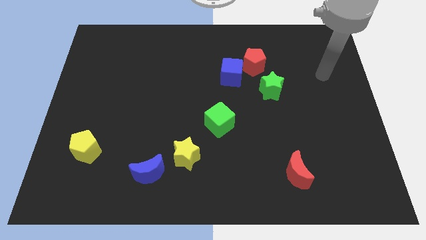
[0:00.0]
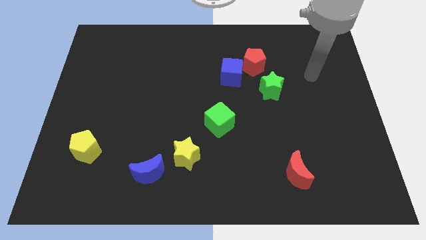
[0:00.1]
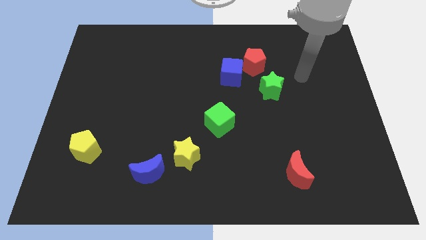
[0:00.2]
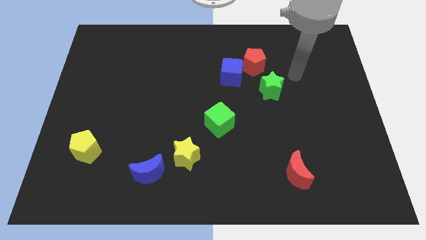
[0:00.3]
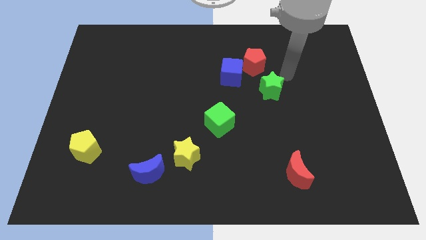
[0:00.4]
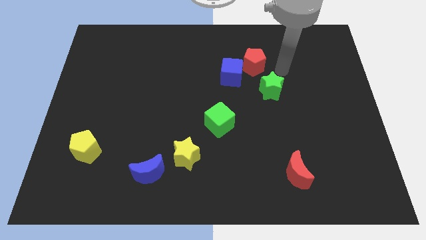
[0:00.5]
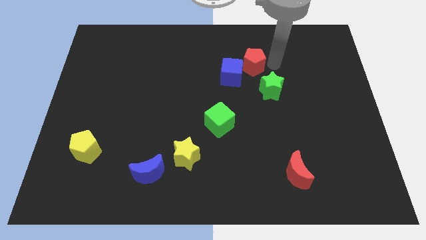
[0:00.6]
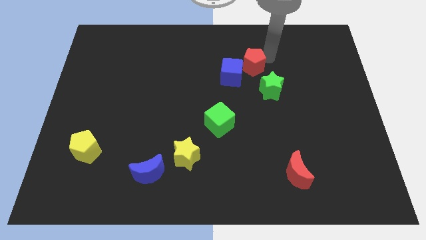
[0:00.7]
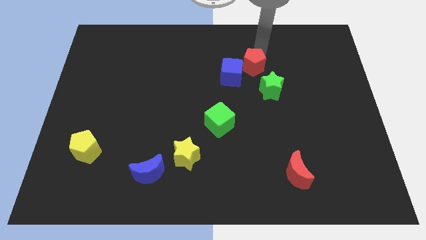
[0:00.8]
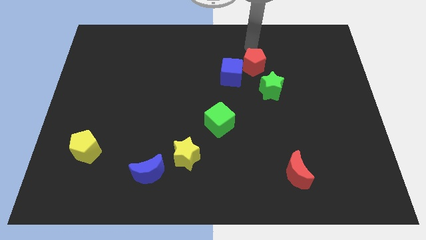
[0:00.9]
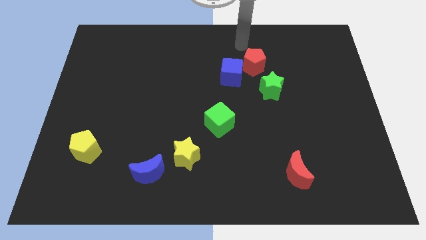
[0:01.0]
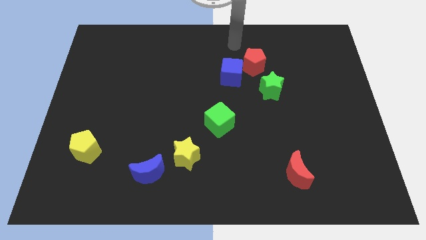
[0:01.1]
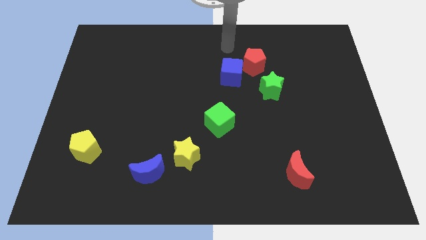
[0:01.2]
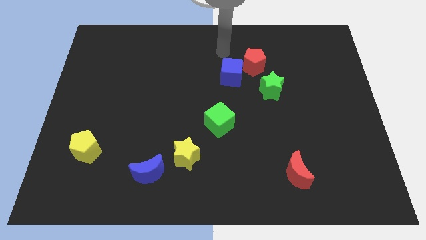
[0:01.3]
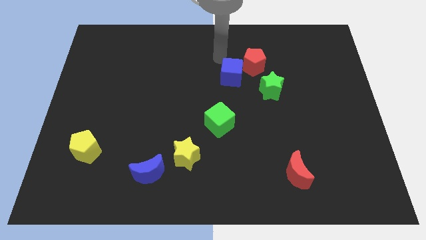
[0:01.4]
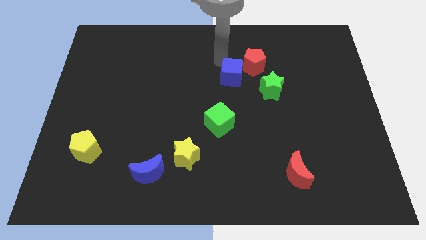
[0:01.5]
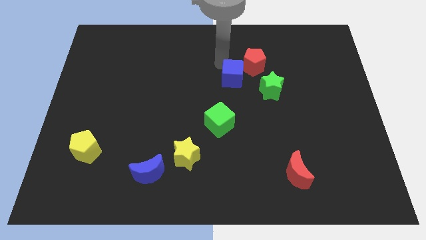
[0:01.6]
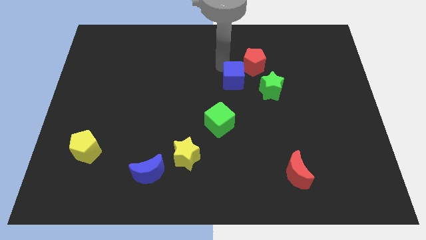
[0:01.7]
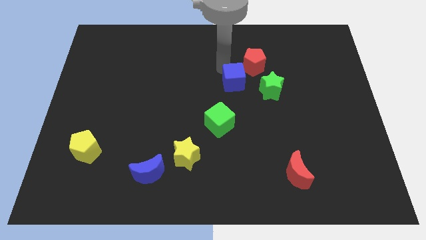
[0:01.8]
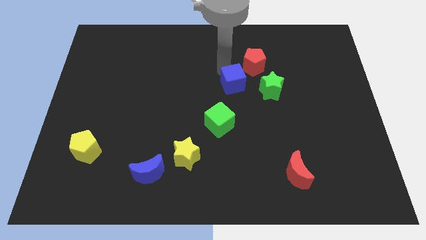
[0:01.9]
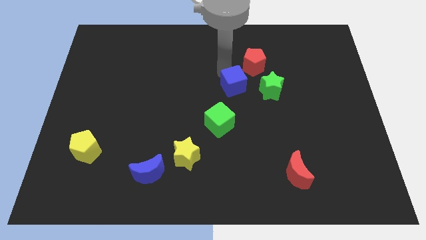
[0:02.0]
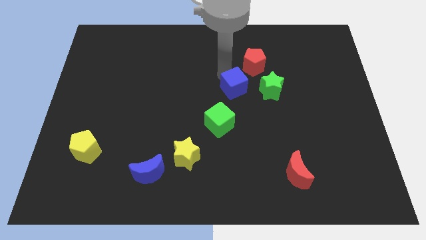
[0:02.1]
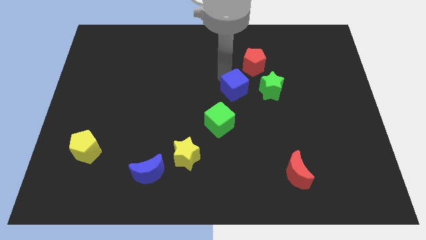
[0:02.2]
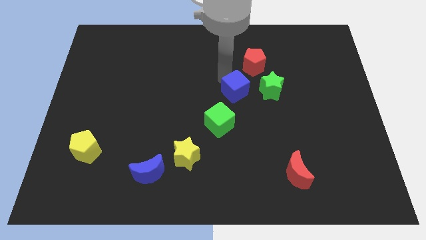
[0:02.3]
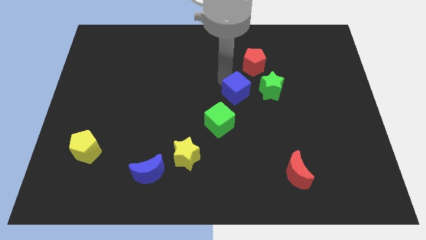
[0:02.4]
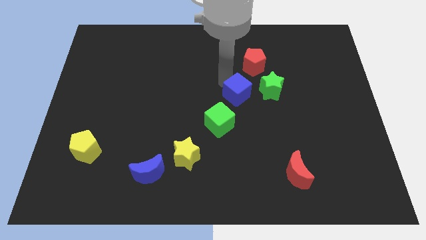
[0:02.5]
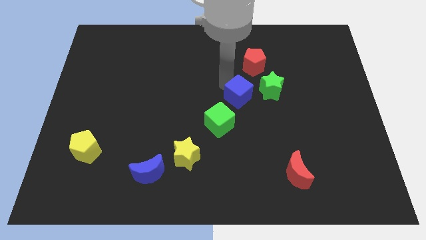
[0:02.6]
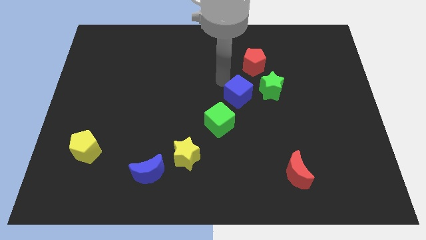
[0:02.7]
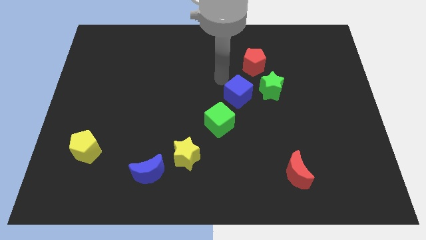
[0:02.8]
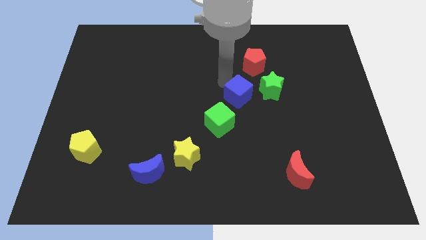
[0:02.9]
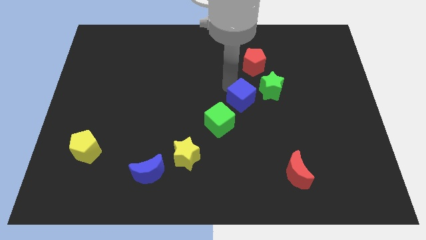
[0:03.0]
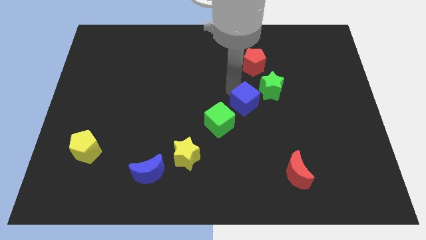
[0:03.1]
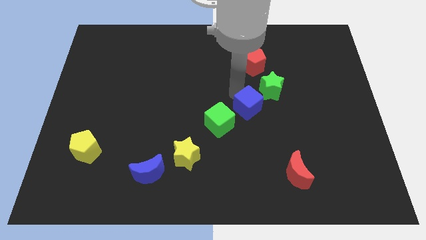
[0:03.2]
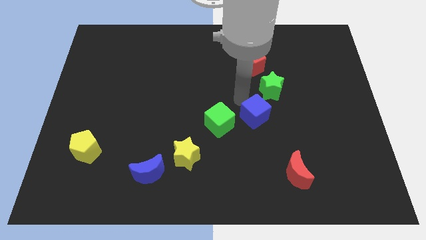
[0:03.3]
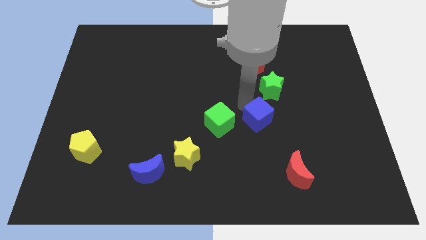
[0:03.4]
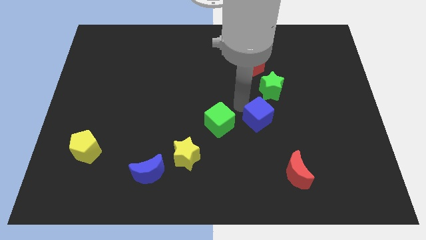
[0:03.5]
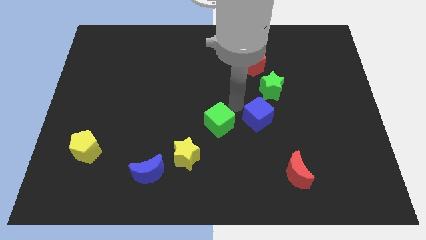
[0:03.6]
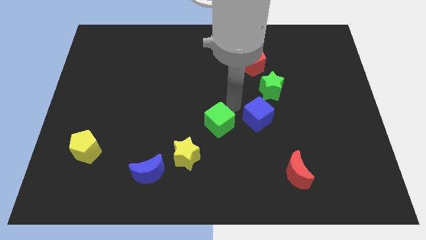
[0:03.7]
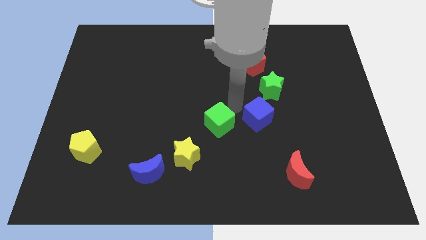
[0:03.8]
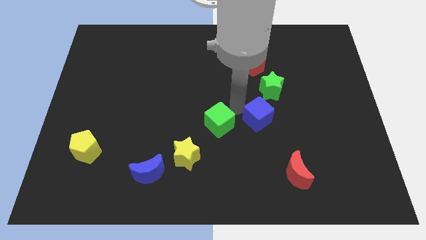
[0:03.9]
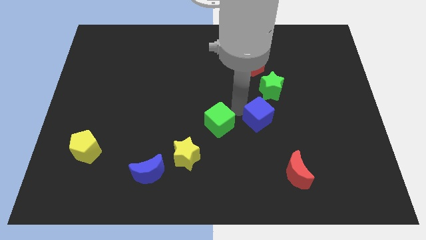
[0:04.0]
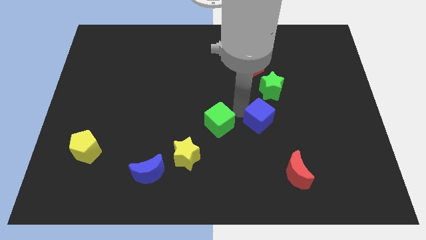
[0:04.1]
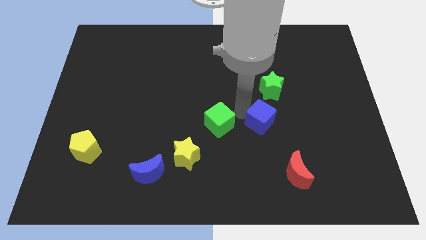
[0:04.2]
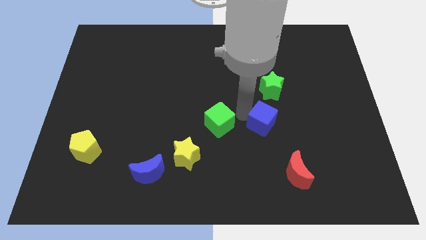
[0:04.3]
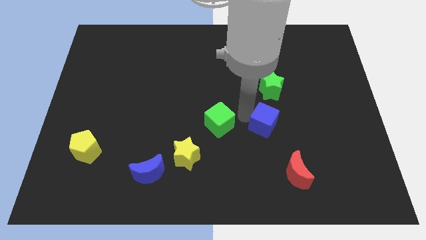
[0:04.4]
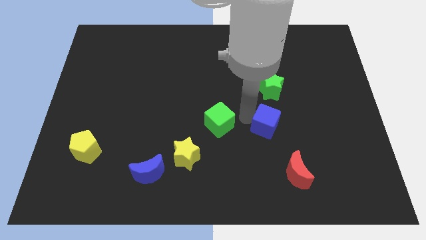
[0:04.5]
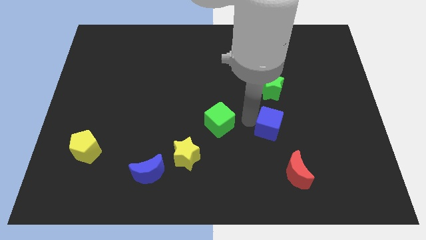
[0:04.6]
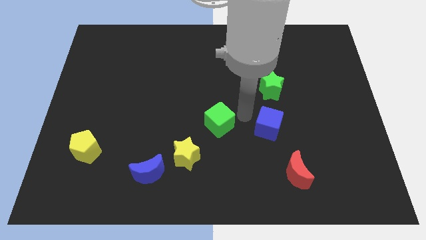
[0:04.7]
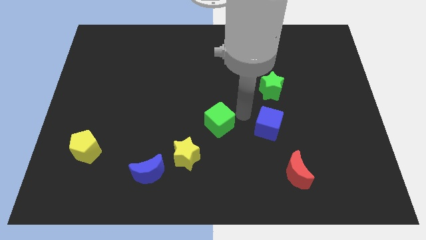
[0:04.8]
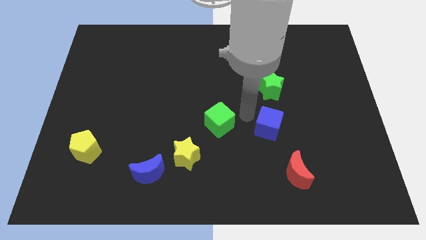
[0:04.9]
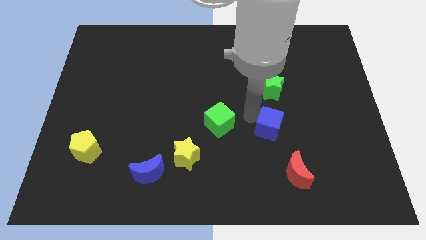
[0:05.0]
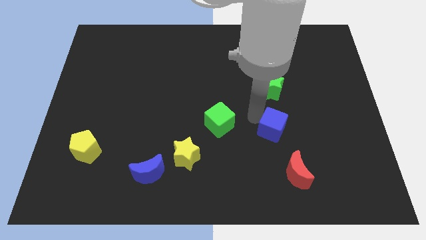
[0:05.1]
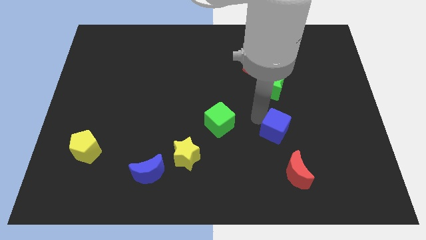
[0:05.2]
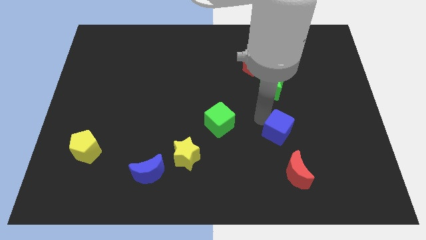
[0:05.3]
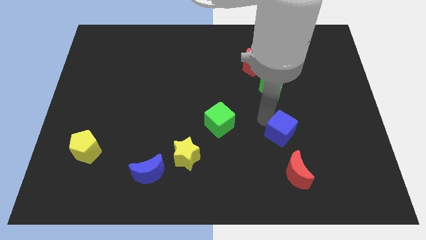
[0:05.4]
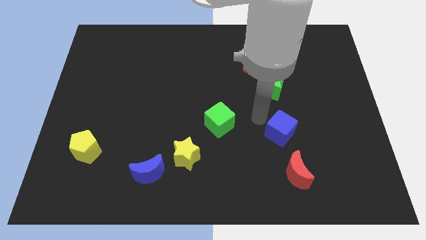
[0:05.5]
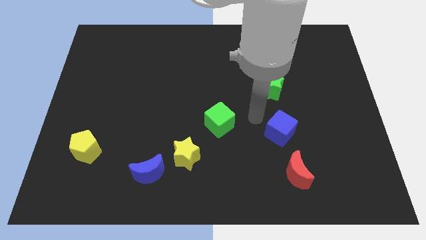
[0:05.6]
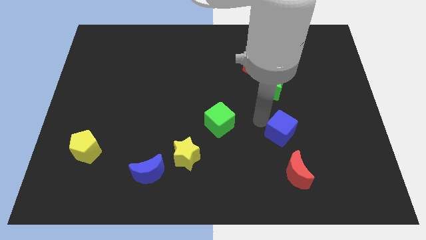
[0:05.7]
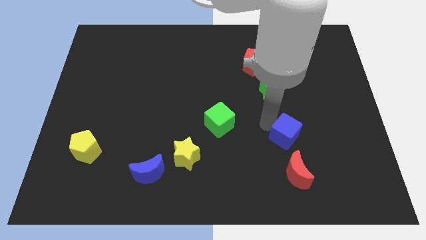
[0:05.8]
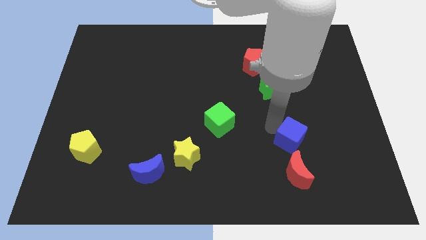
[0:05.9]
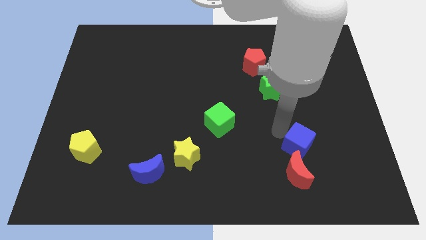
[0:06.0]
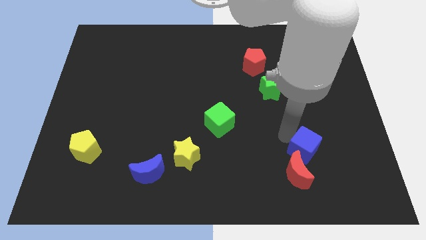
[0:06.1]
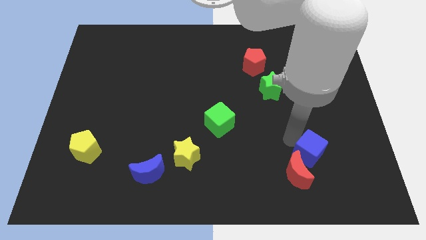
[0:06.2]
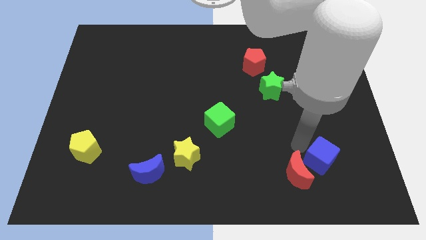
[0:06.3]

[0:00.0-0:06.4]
push the blue cube to the right of the red moon

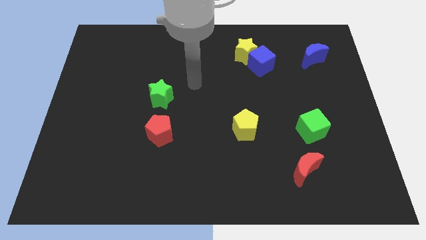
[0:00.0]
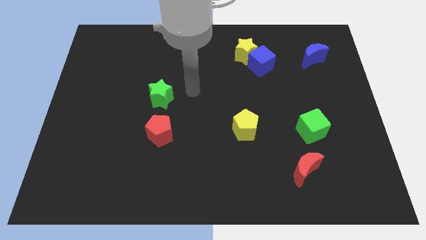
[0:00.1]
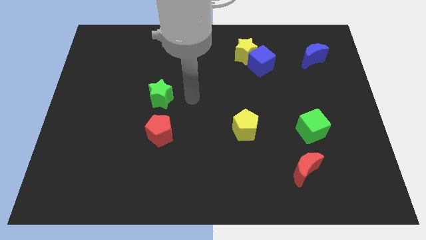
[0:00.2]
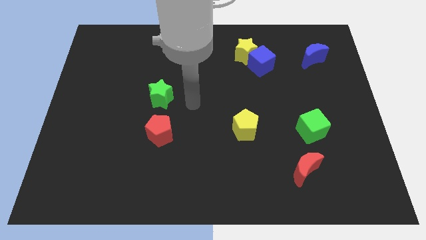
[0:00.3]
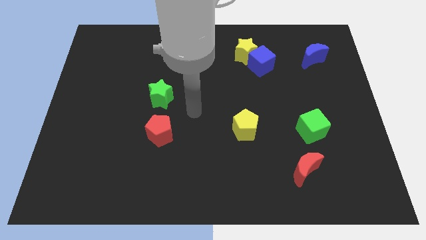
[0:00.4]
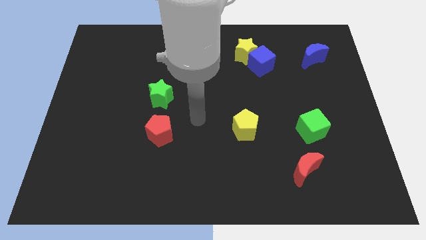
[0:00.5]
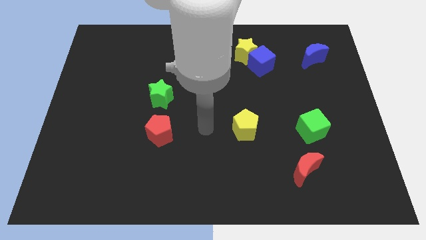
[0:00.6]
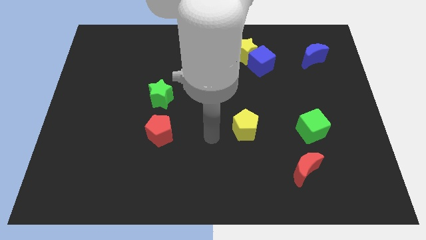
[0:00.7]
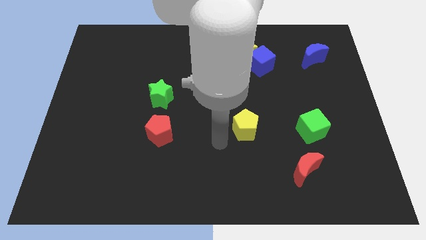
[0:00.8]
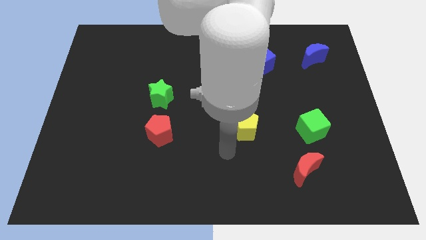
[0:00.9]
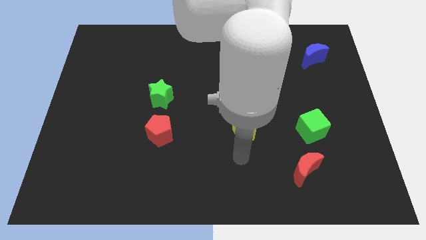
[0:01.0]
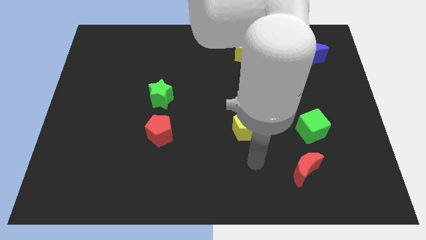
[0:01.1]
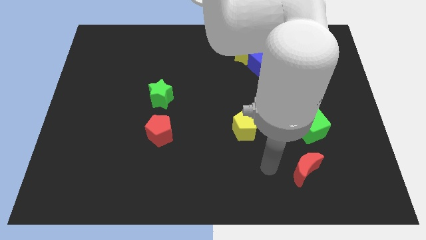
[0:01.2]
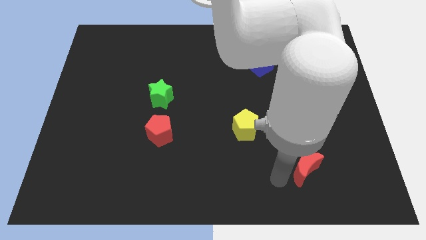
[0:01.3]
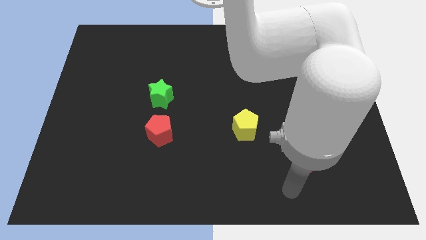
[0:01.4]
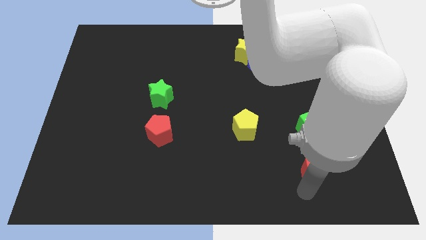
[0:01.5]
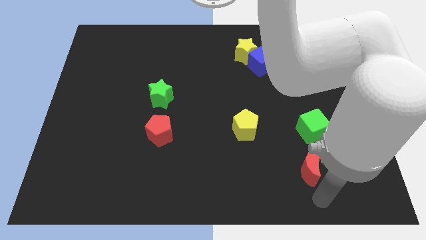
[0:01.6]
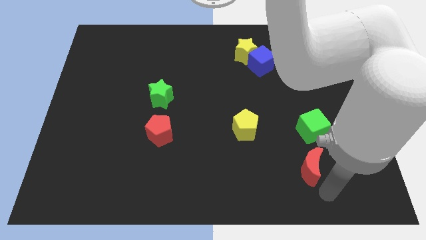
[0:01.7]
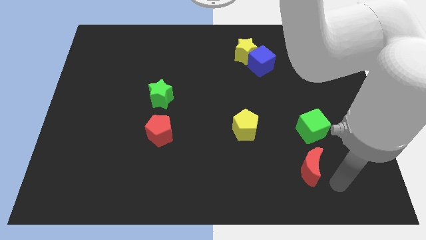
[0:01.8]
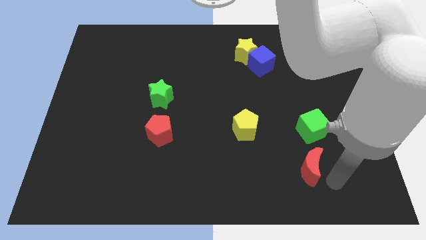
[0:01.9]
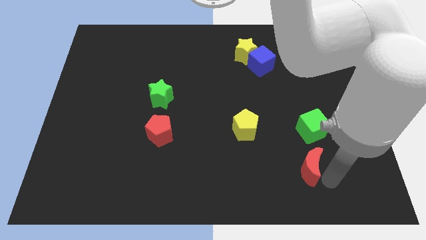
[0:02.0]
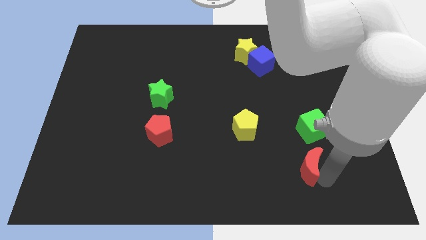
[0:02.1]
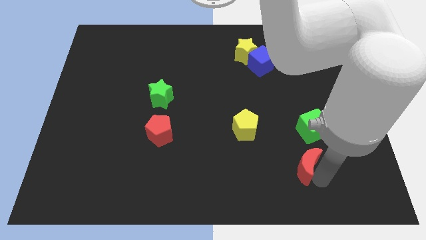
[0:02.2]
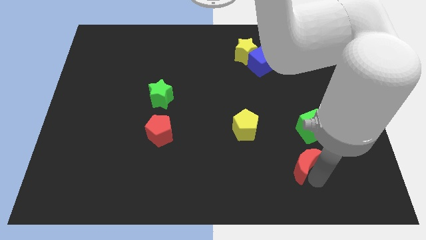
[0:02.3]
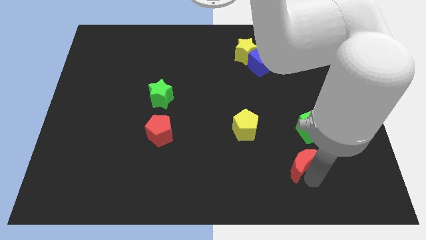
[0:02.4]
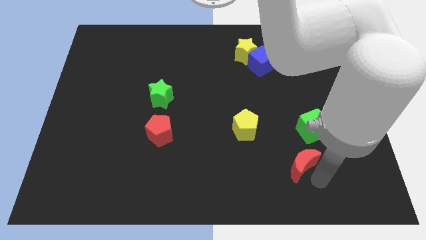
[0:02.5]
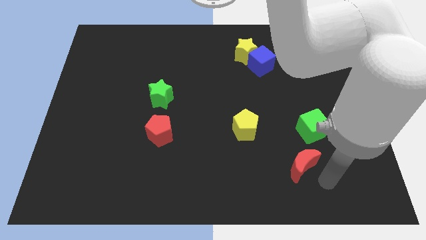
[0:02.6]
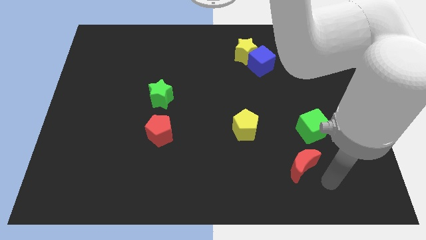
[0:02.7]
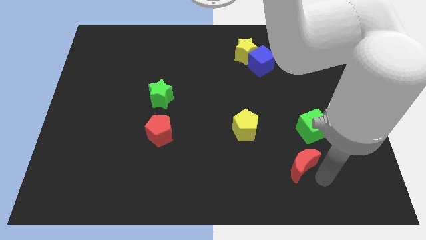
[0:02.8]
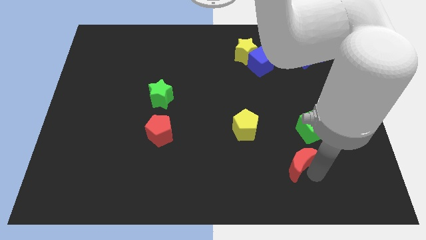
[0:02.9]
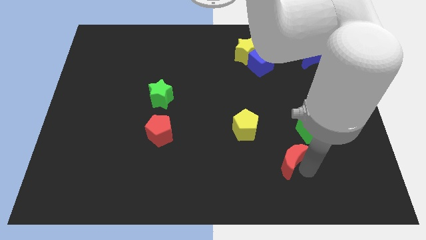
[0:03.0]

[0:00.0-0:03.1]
move the red moon to the bottom right of the yellow pentagon
